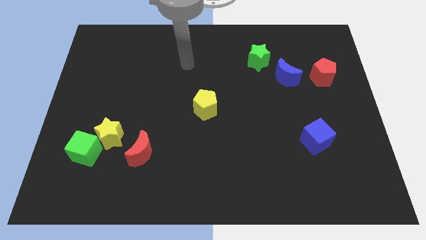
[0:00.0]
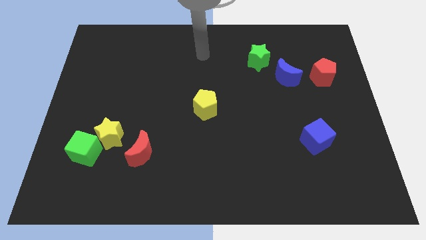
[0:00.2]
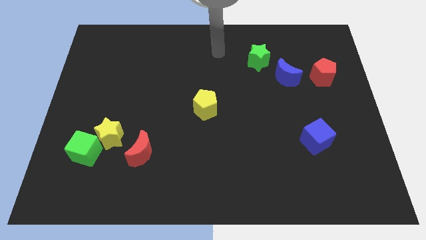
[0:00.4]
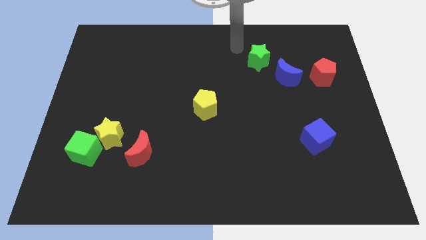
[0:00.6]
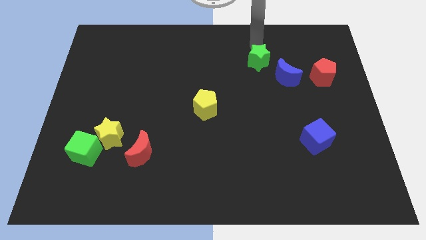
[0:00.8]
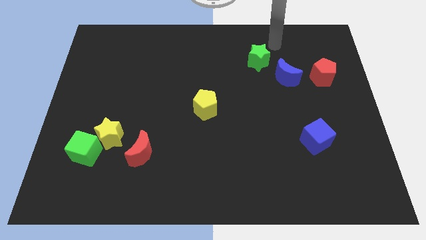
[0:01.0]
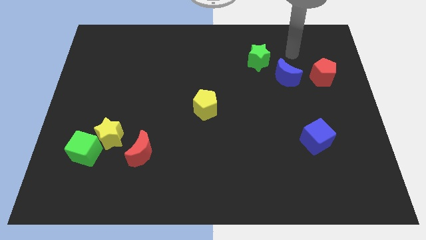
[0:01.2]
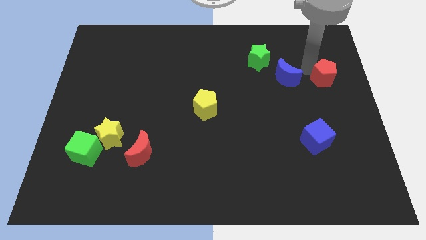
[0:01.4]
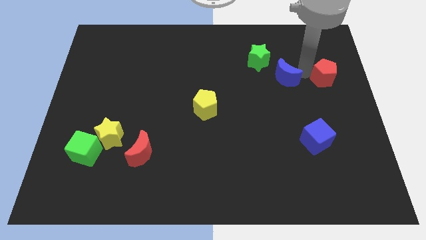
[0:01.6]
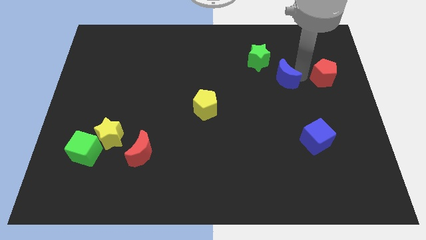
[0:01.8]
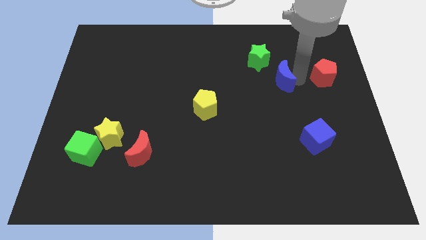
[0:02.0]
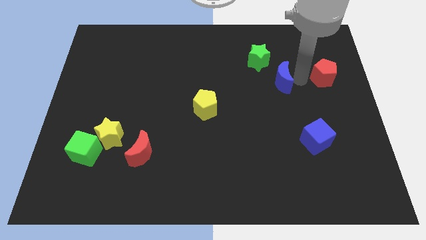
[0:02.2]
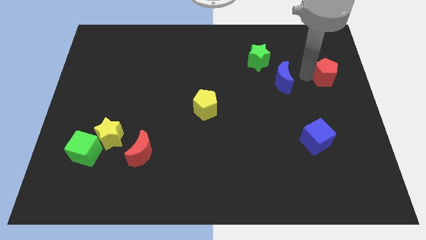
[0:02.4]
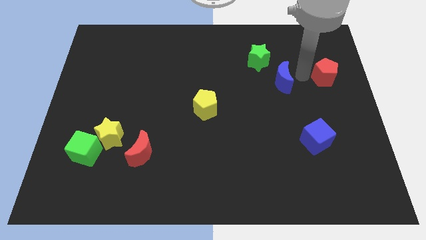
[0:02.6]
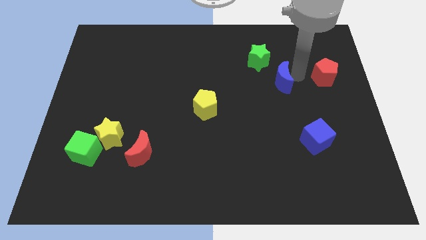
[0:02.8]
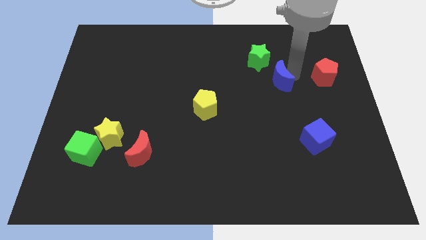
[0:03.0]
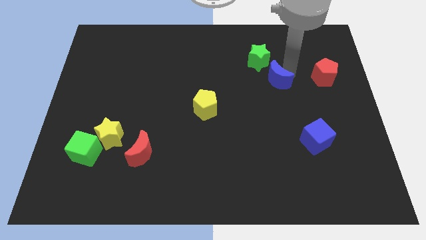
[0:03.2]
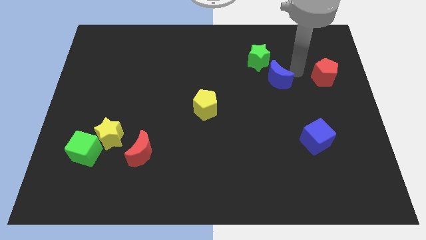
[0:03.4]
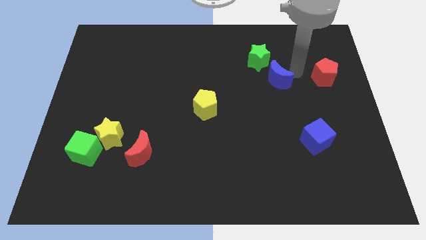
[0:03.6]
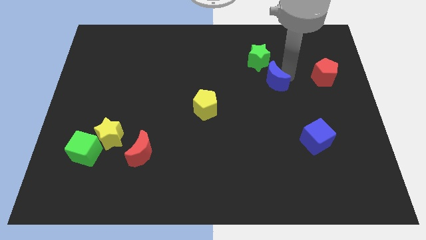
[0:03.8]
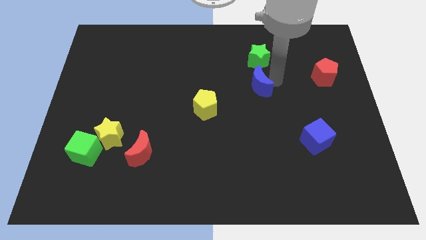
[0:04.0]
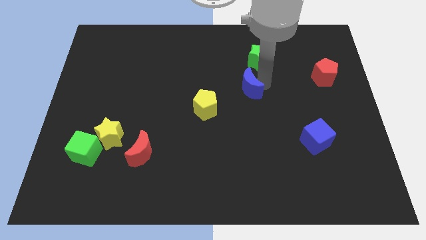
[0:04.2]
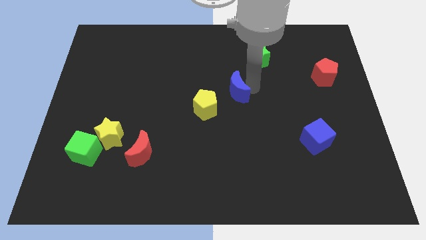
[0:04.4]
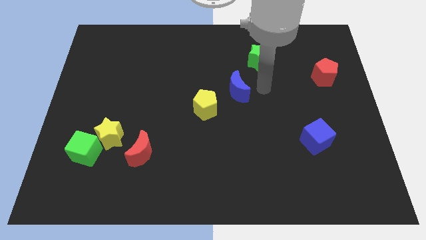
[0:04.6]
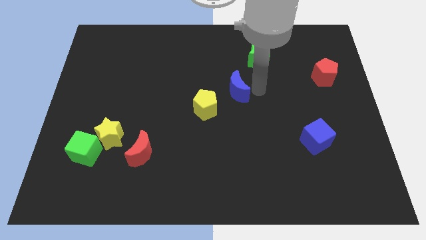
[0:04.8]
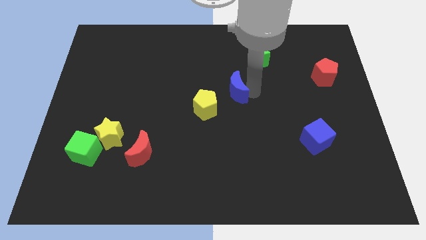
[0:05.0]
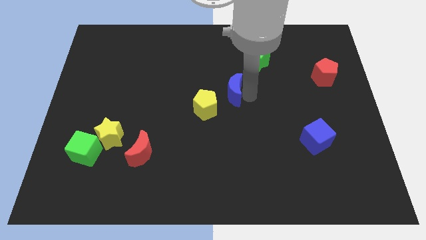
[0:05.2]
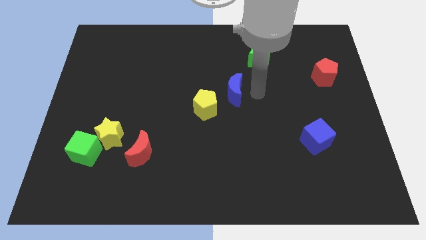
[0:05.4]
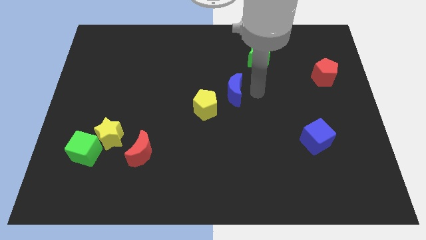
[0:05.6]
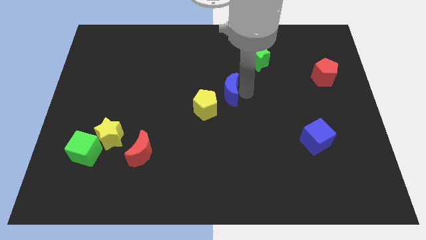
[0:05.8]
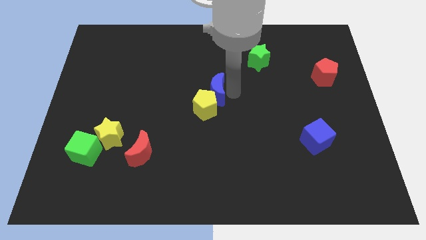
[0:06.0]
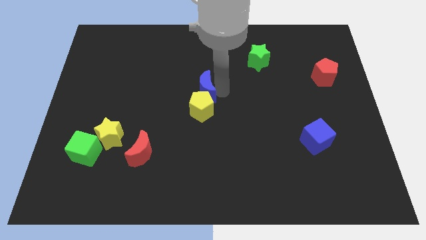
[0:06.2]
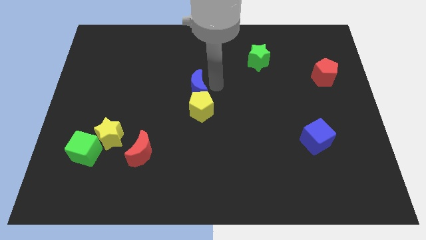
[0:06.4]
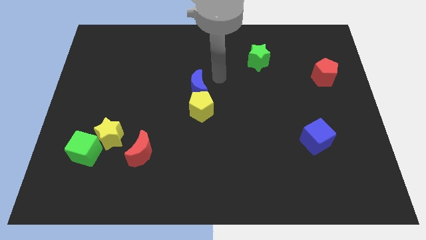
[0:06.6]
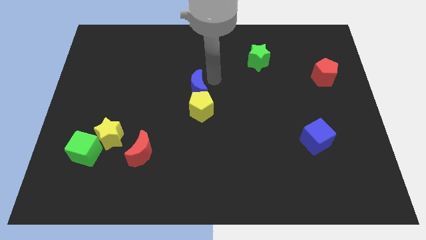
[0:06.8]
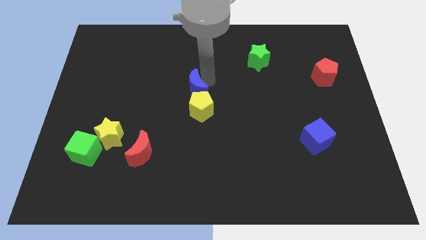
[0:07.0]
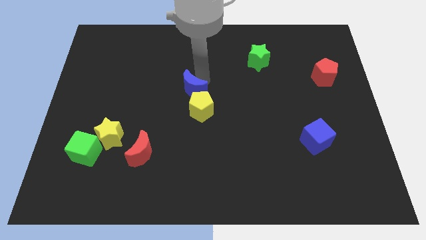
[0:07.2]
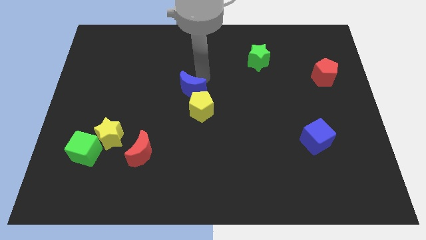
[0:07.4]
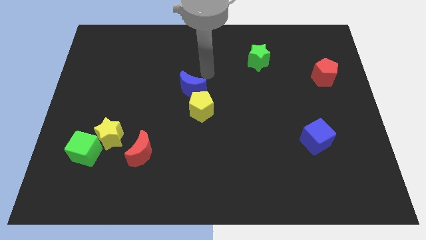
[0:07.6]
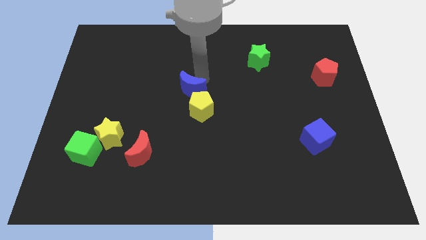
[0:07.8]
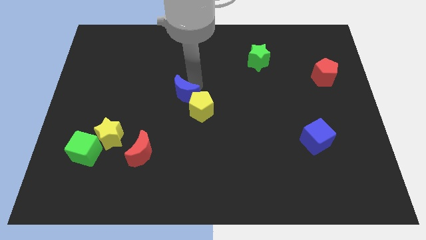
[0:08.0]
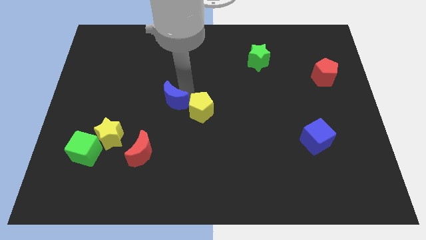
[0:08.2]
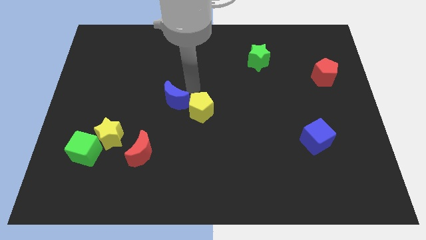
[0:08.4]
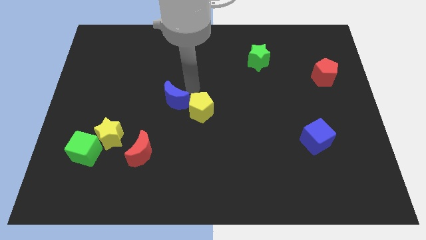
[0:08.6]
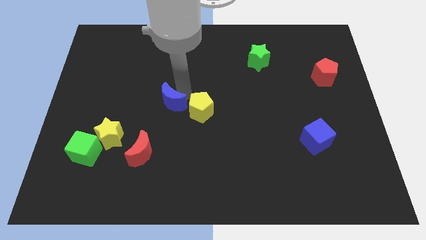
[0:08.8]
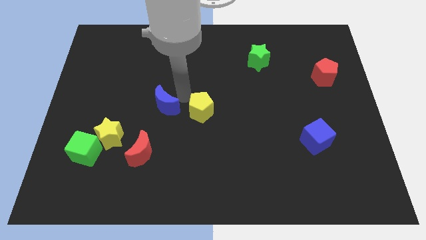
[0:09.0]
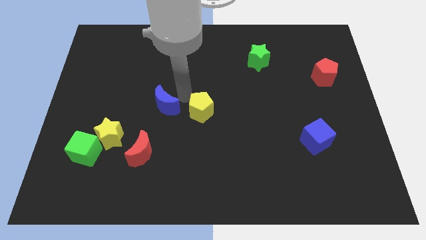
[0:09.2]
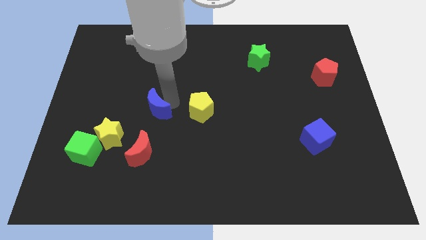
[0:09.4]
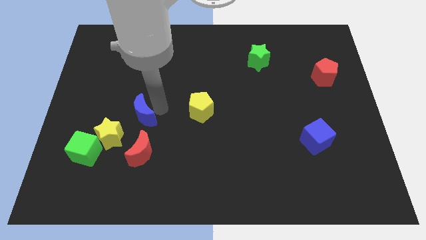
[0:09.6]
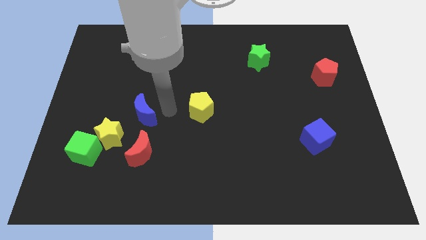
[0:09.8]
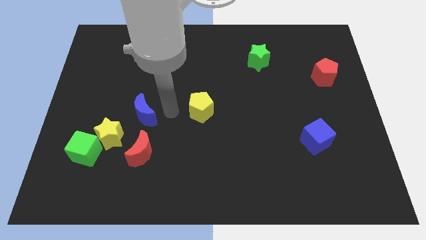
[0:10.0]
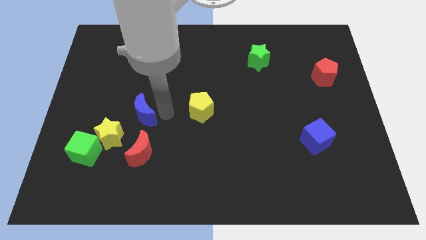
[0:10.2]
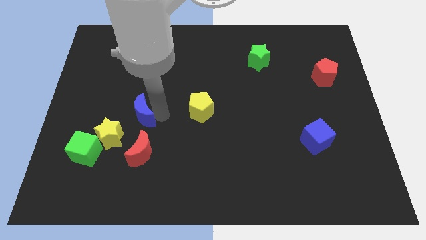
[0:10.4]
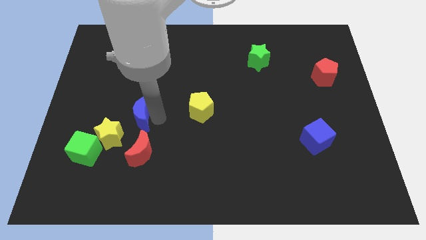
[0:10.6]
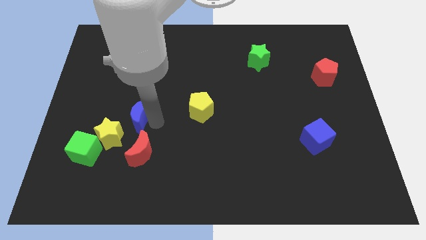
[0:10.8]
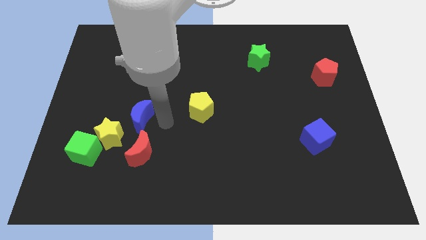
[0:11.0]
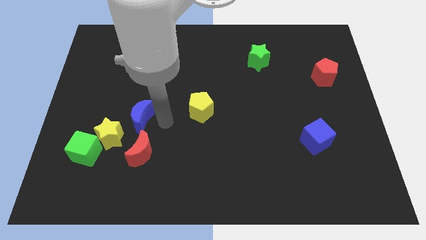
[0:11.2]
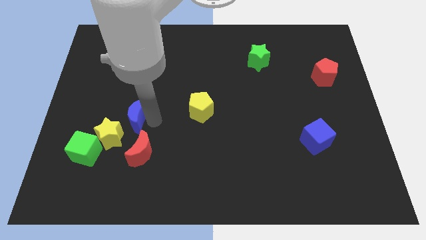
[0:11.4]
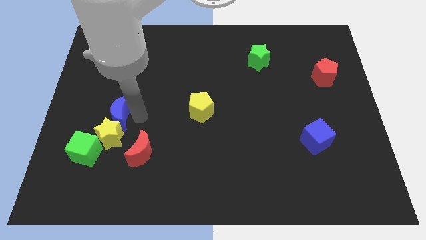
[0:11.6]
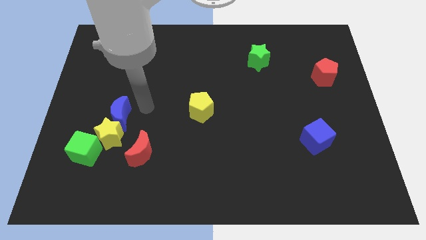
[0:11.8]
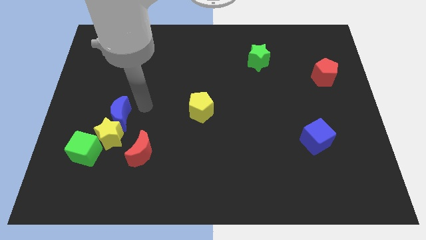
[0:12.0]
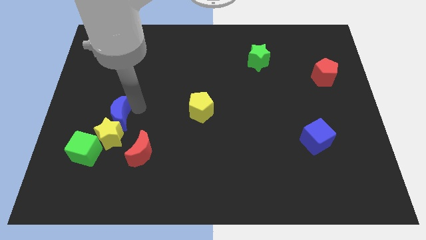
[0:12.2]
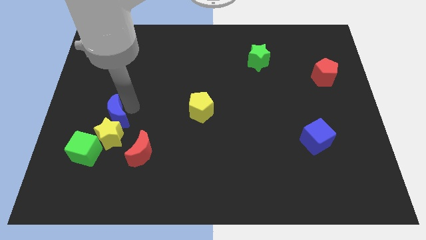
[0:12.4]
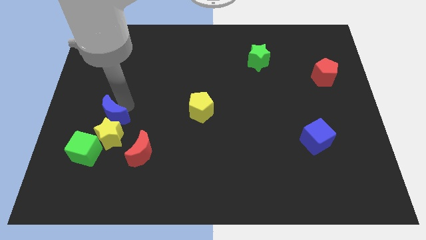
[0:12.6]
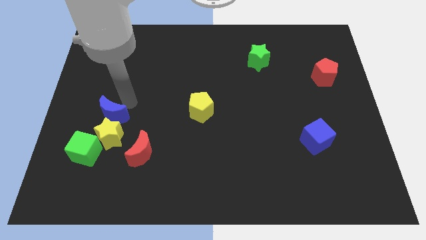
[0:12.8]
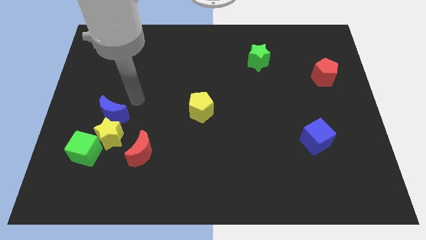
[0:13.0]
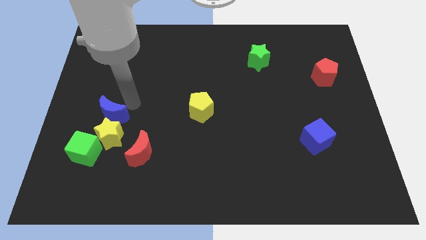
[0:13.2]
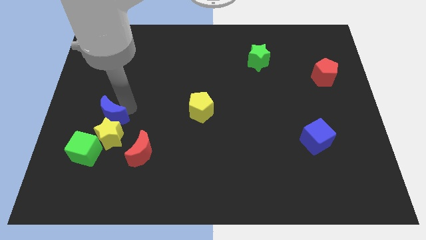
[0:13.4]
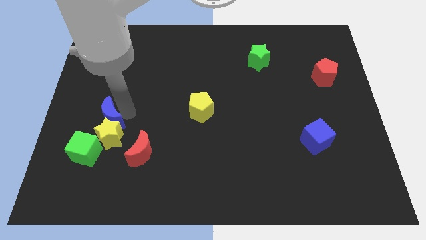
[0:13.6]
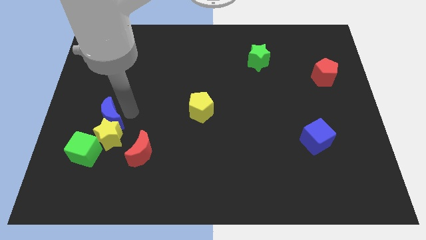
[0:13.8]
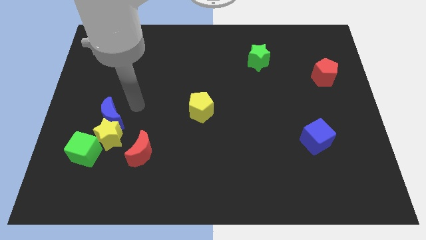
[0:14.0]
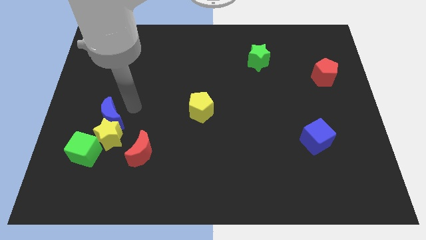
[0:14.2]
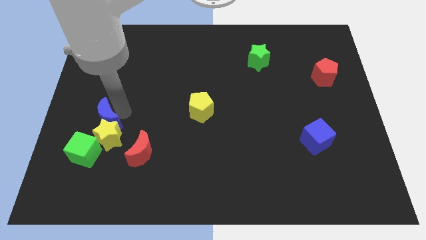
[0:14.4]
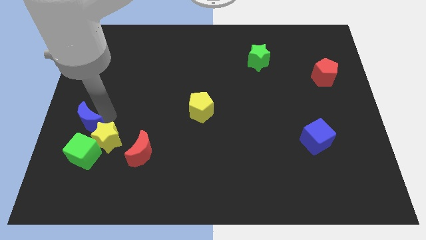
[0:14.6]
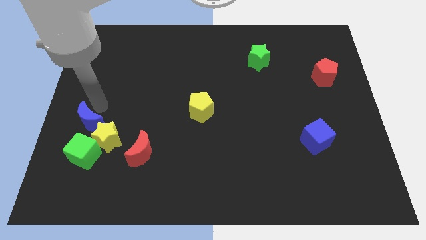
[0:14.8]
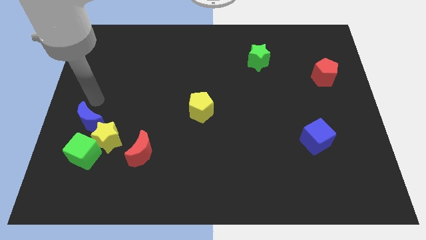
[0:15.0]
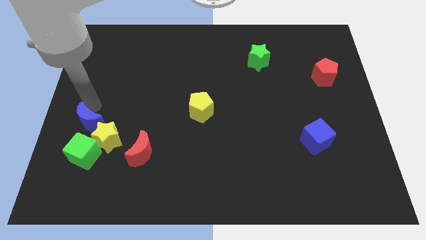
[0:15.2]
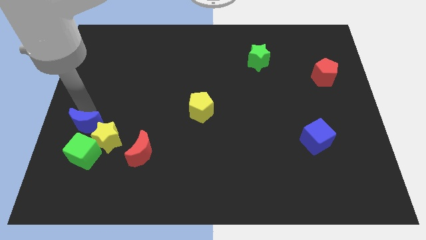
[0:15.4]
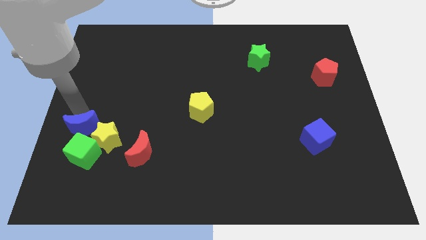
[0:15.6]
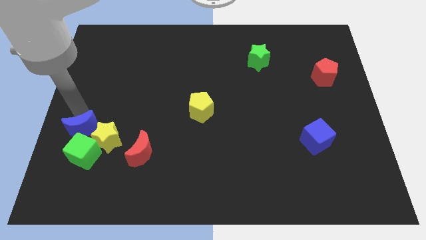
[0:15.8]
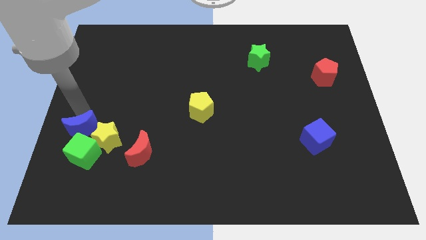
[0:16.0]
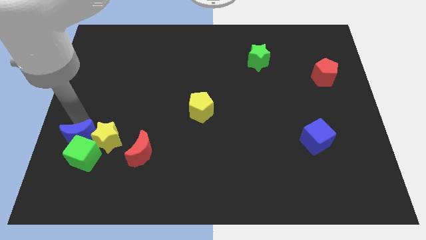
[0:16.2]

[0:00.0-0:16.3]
push the blue moon to the green cube
